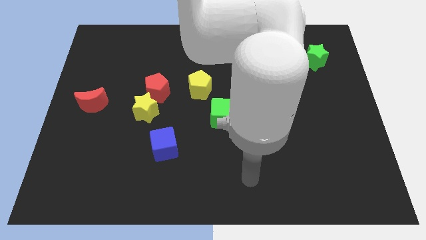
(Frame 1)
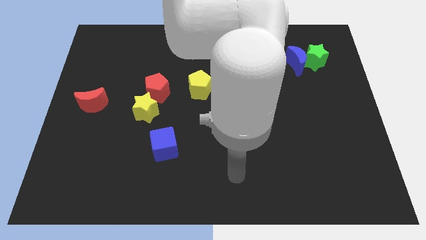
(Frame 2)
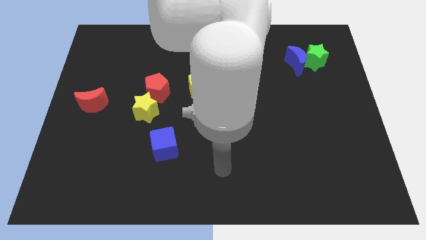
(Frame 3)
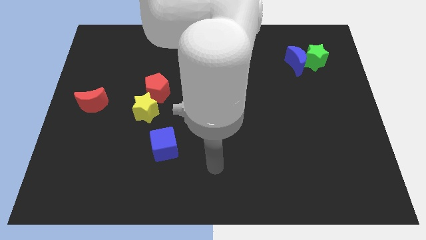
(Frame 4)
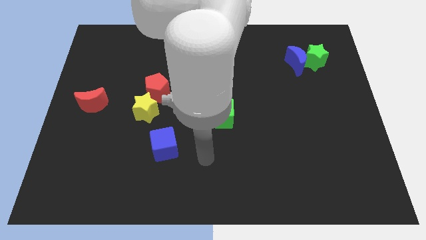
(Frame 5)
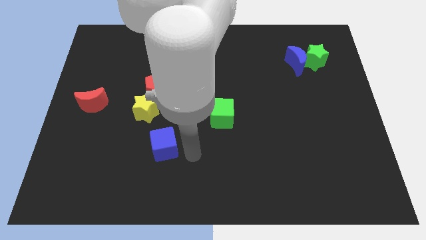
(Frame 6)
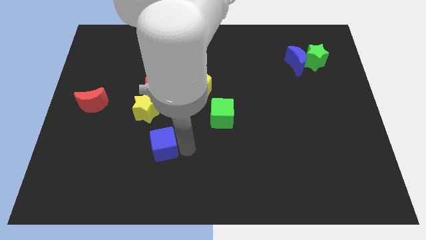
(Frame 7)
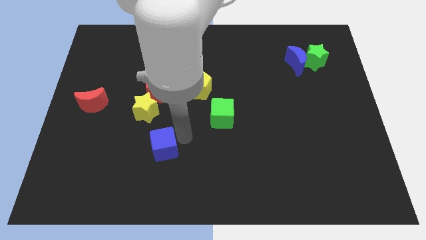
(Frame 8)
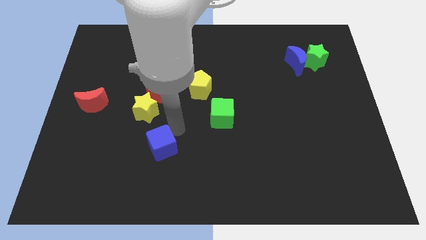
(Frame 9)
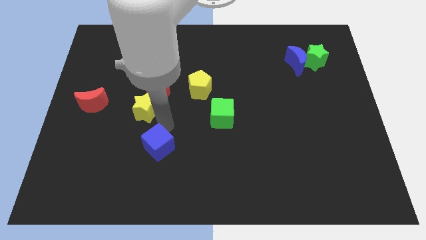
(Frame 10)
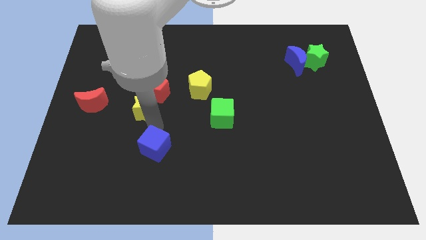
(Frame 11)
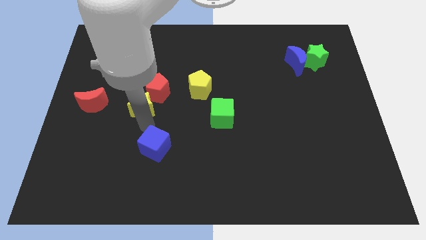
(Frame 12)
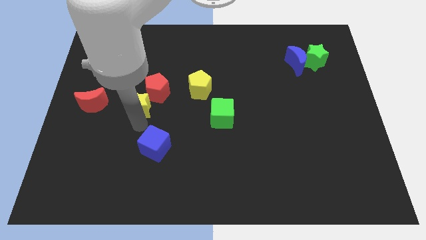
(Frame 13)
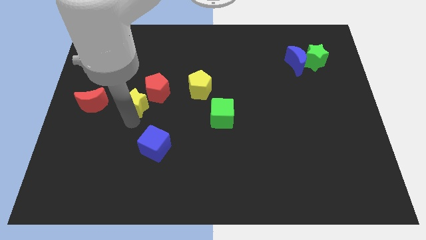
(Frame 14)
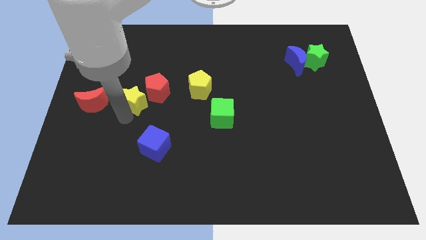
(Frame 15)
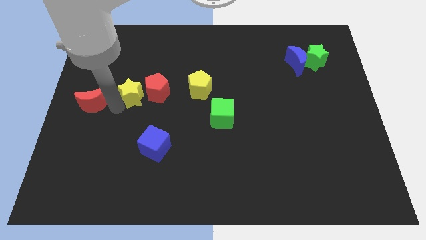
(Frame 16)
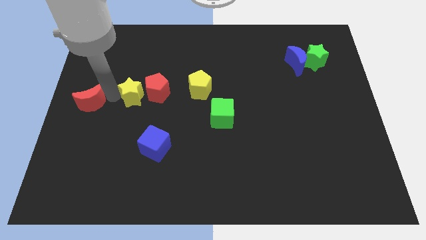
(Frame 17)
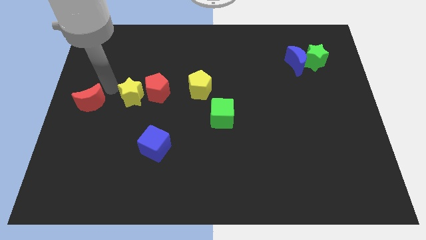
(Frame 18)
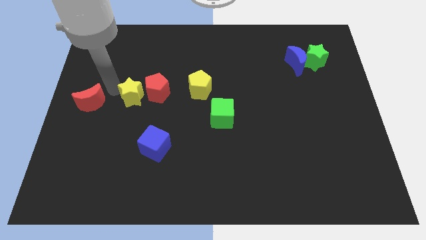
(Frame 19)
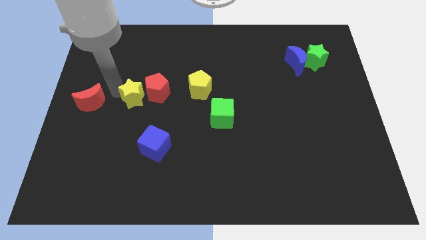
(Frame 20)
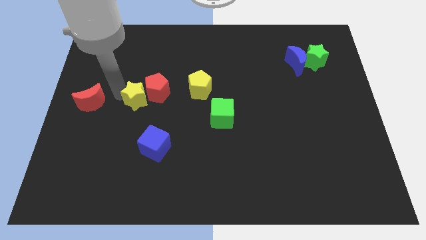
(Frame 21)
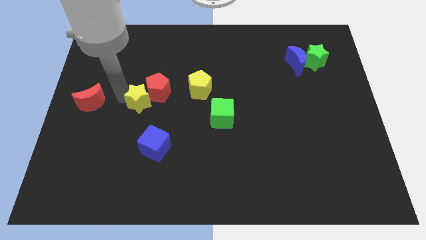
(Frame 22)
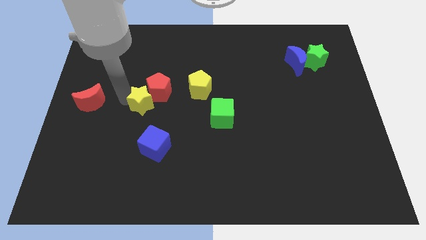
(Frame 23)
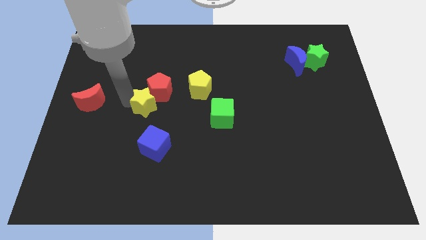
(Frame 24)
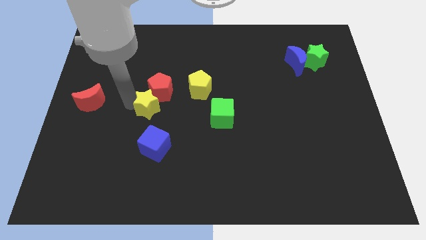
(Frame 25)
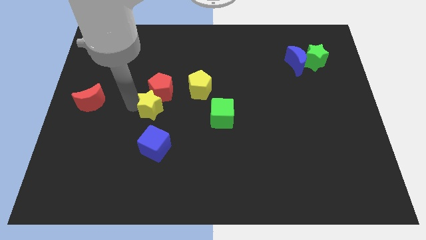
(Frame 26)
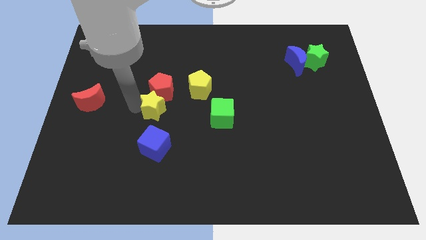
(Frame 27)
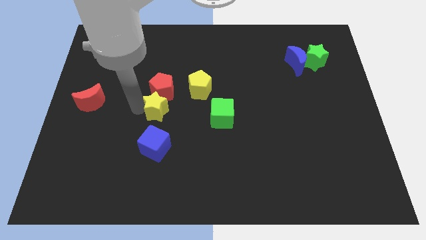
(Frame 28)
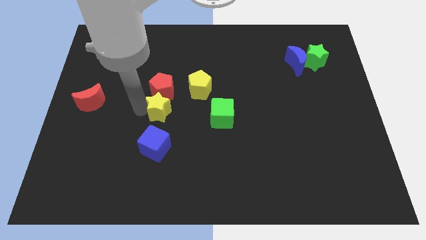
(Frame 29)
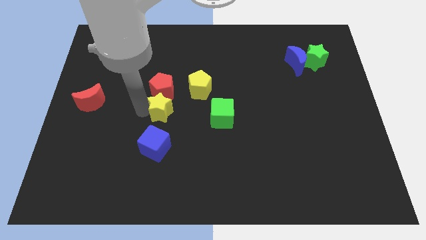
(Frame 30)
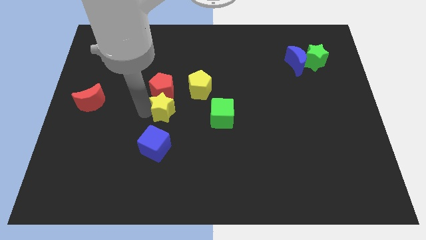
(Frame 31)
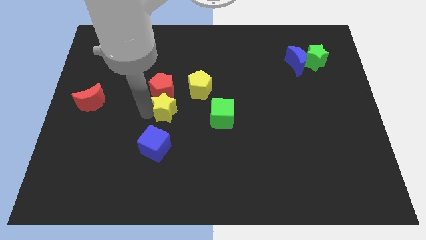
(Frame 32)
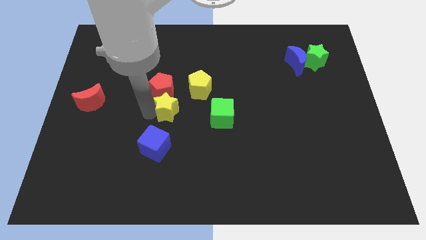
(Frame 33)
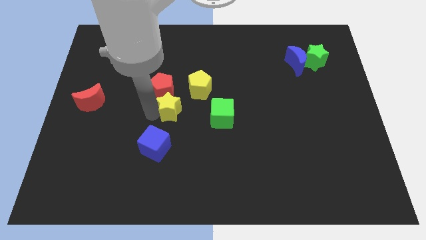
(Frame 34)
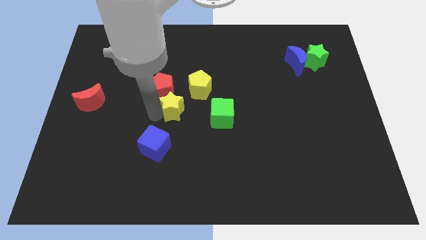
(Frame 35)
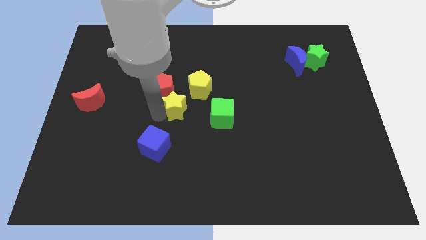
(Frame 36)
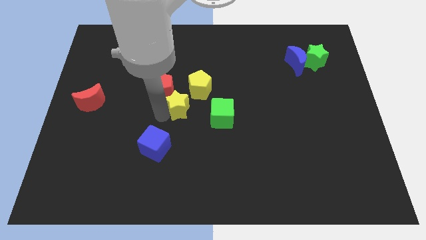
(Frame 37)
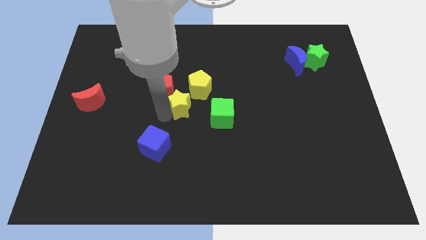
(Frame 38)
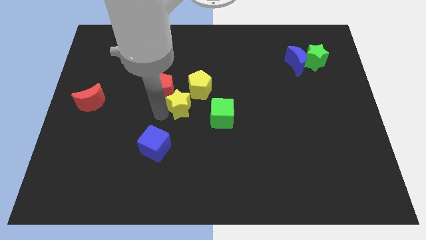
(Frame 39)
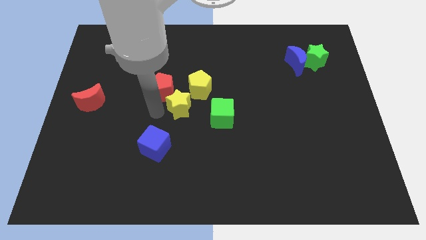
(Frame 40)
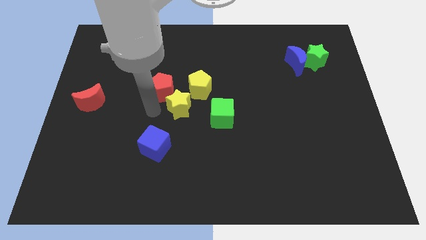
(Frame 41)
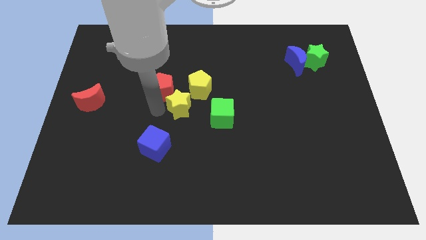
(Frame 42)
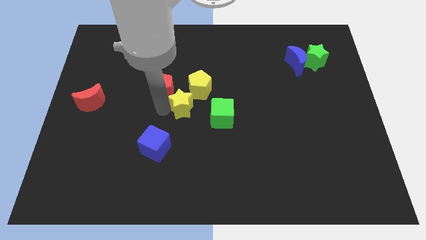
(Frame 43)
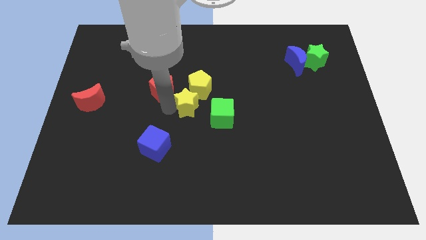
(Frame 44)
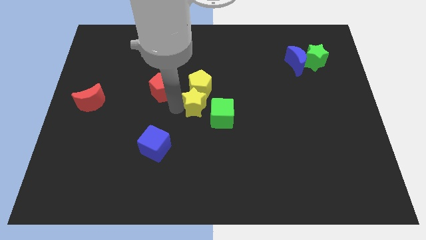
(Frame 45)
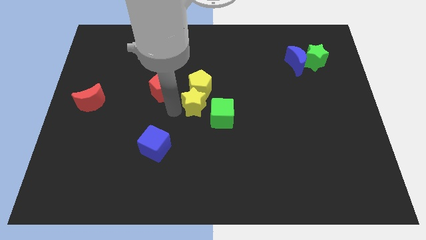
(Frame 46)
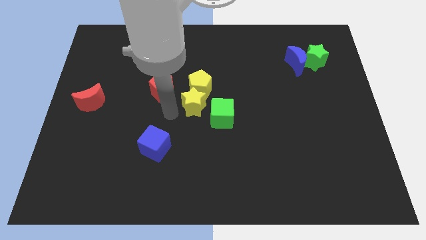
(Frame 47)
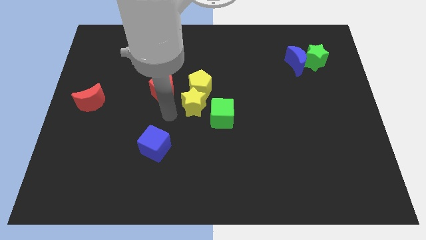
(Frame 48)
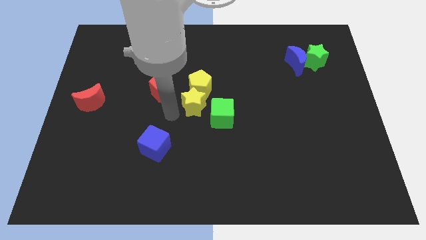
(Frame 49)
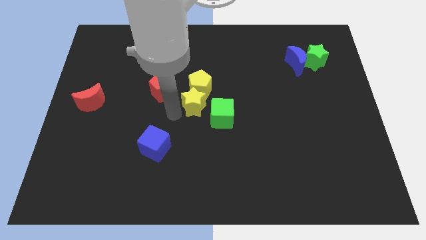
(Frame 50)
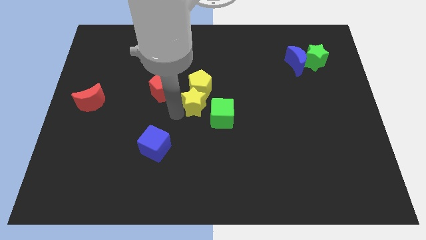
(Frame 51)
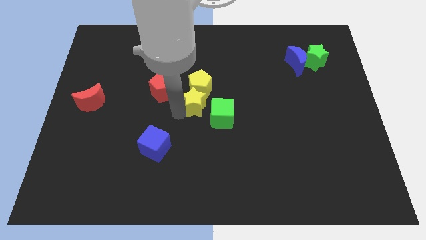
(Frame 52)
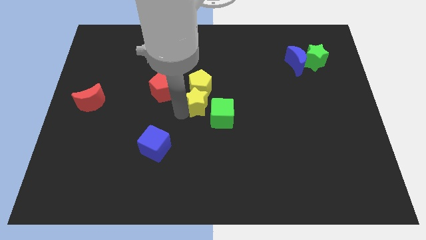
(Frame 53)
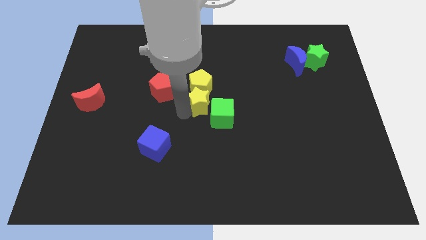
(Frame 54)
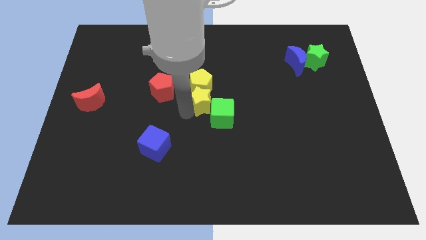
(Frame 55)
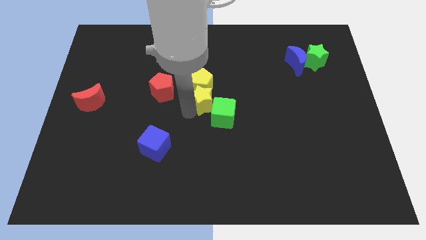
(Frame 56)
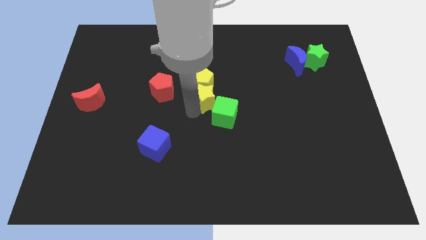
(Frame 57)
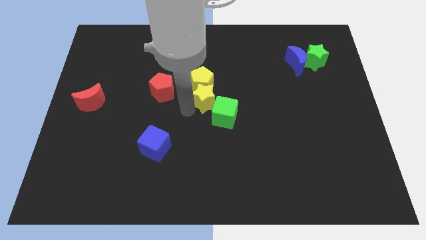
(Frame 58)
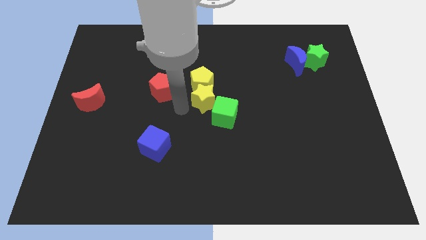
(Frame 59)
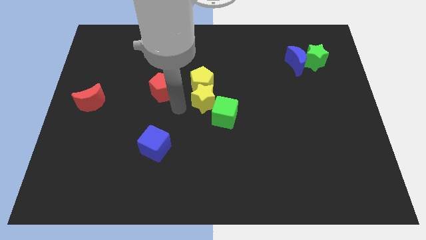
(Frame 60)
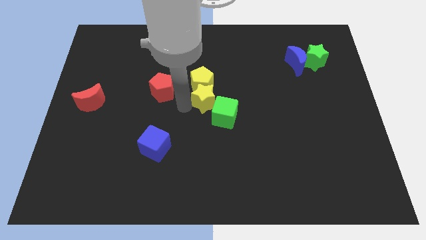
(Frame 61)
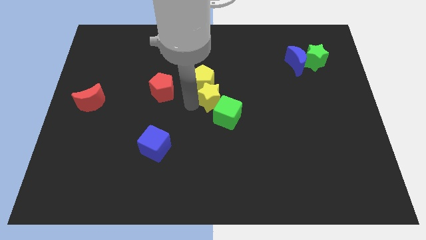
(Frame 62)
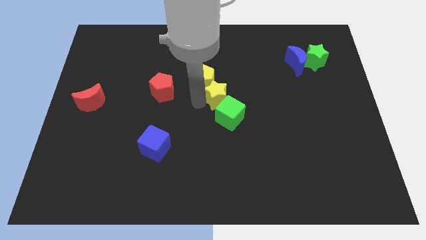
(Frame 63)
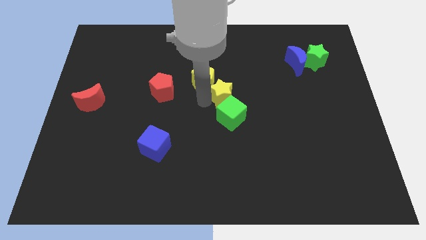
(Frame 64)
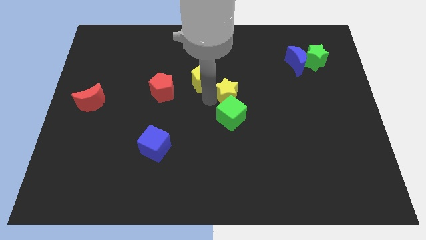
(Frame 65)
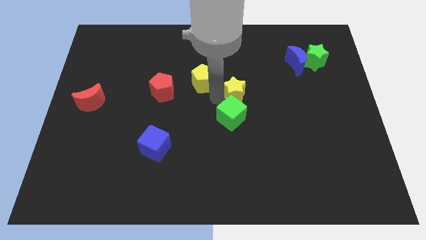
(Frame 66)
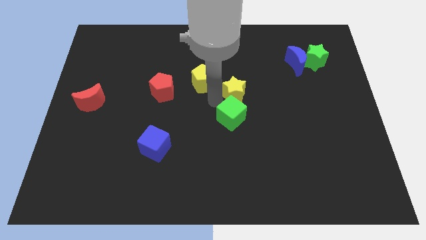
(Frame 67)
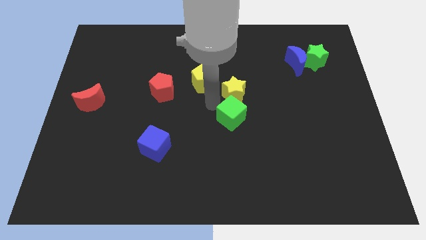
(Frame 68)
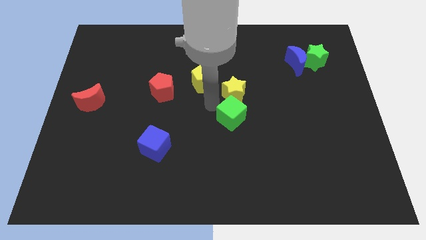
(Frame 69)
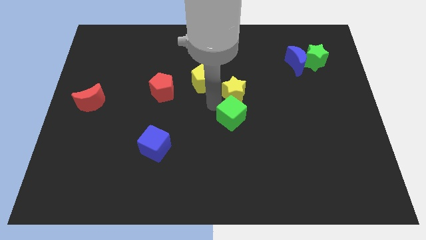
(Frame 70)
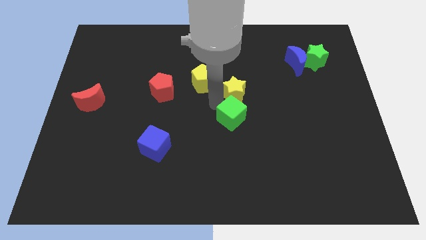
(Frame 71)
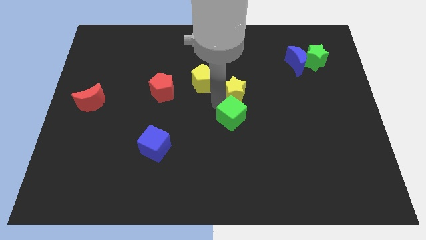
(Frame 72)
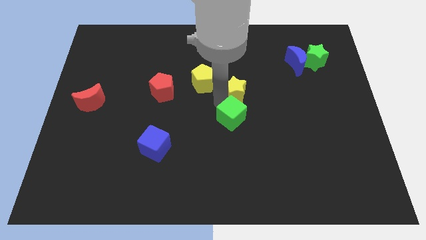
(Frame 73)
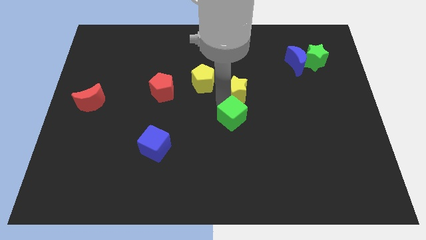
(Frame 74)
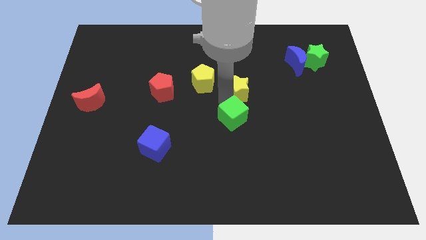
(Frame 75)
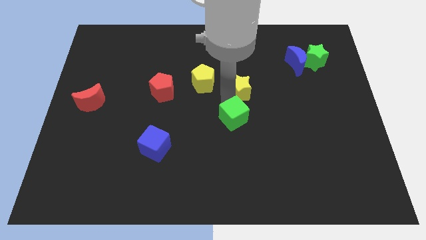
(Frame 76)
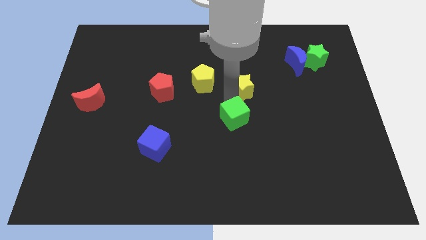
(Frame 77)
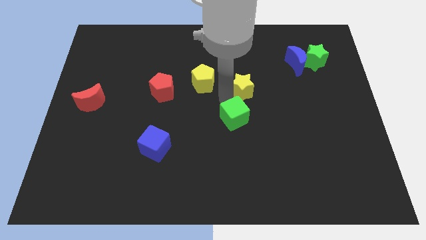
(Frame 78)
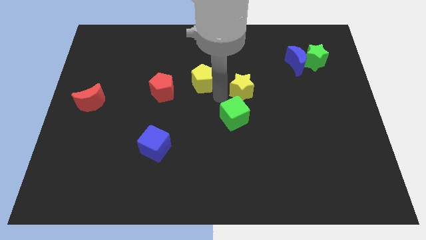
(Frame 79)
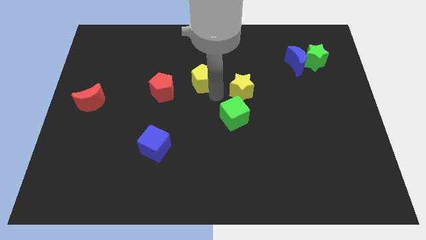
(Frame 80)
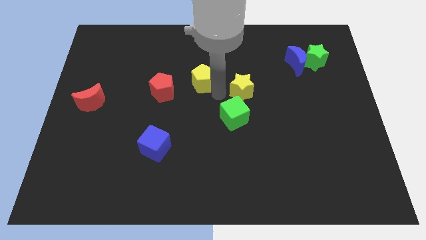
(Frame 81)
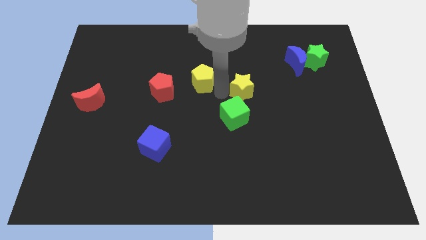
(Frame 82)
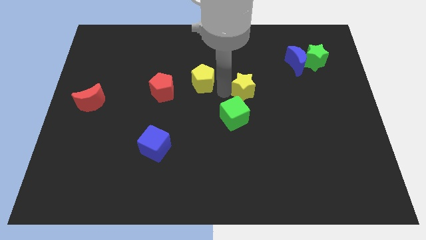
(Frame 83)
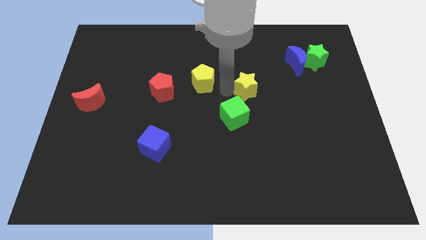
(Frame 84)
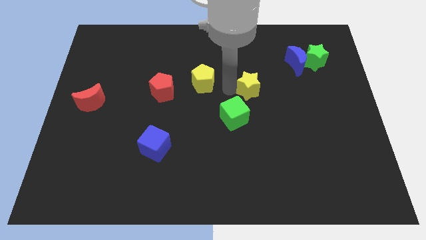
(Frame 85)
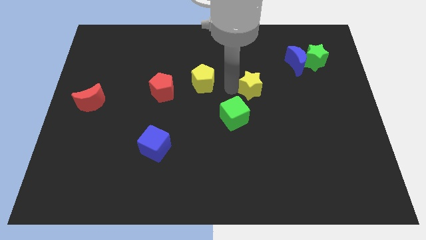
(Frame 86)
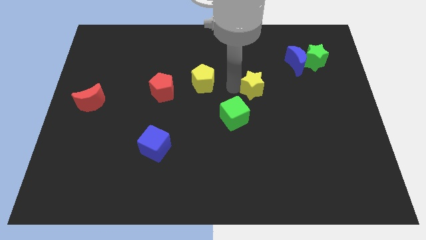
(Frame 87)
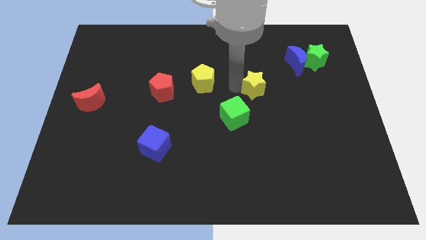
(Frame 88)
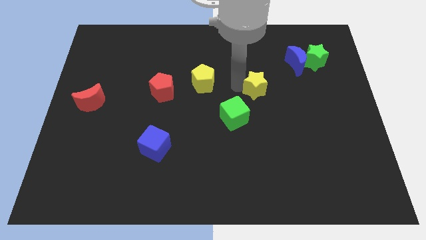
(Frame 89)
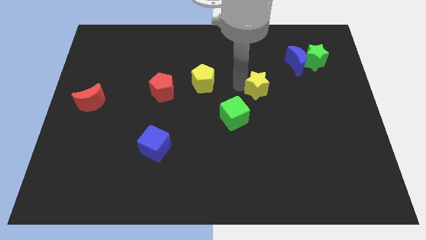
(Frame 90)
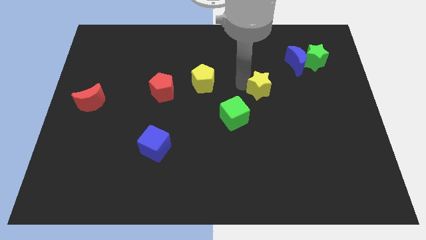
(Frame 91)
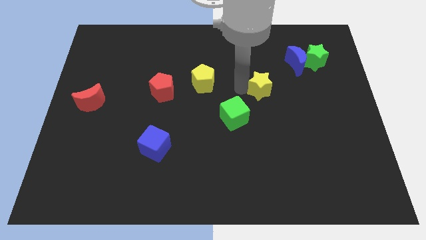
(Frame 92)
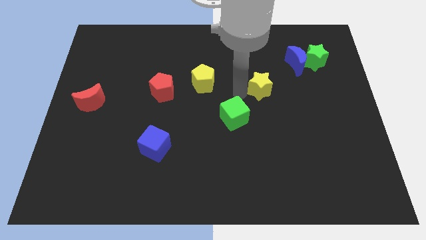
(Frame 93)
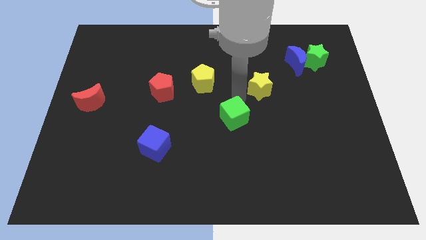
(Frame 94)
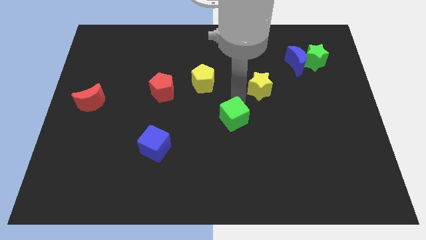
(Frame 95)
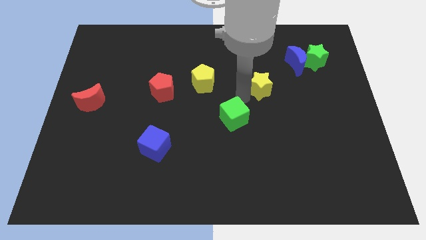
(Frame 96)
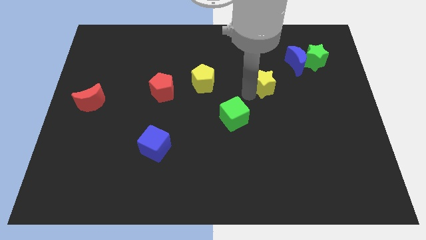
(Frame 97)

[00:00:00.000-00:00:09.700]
slide the yellow star to the bottom left side of the blue moon
